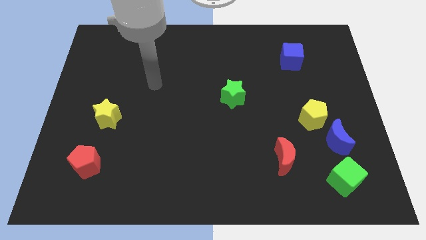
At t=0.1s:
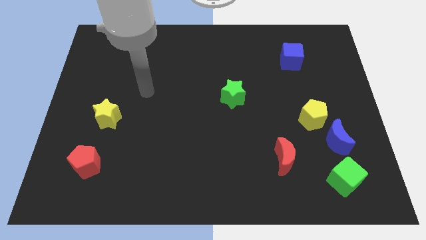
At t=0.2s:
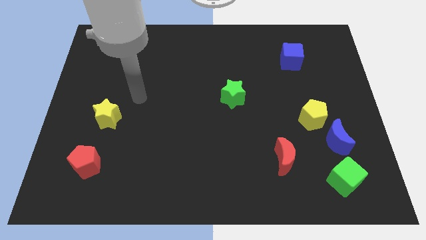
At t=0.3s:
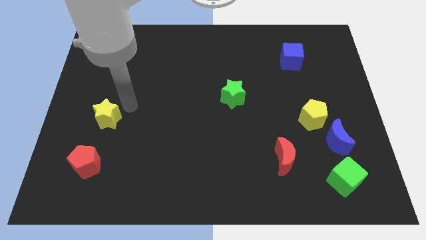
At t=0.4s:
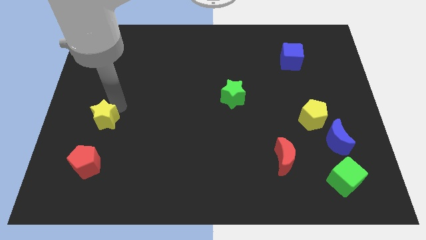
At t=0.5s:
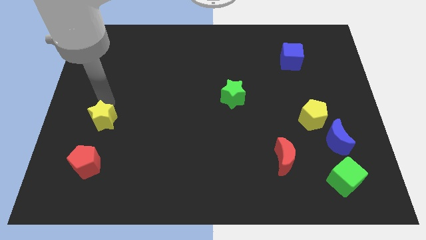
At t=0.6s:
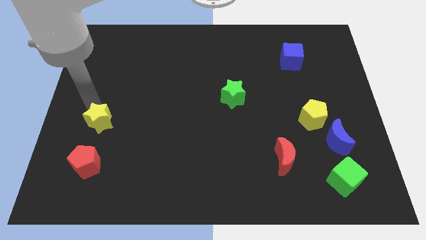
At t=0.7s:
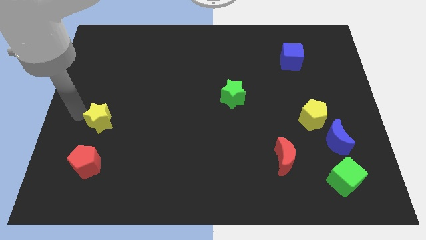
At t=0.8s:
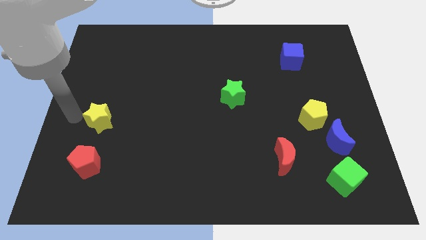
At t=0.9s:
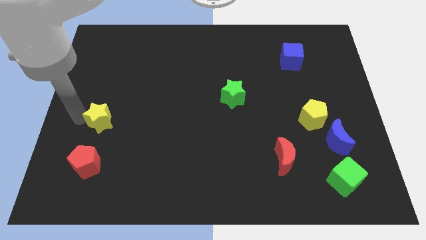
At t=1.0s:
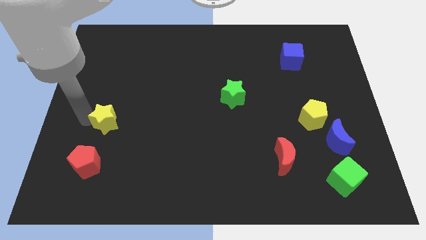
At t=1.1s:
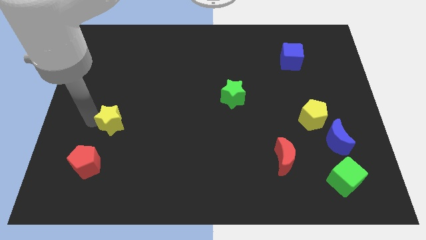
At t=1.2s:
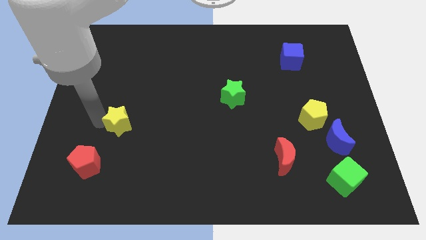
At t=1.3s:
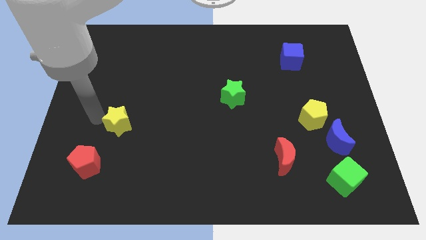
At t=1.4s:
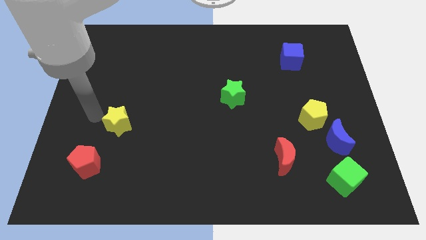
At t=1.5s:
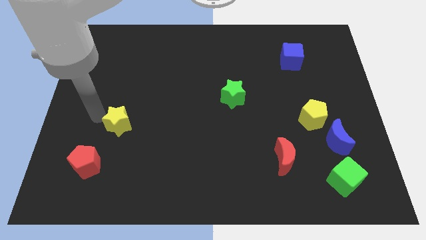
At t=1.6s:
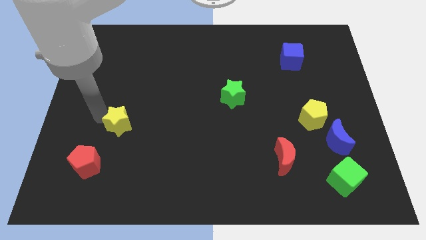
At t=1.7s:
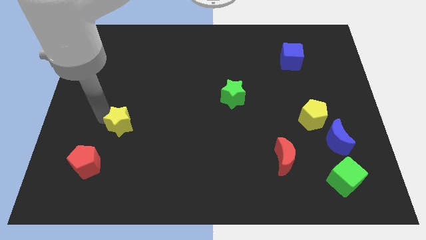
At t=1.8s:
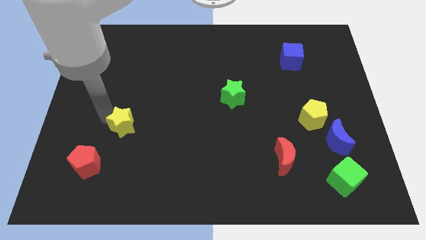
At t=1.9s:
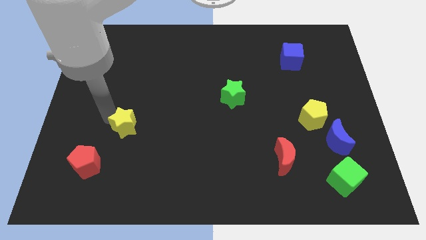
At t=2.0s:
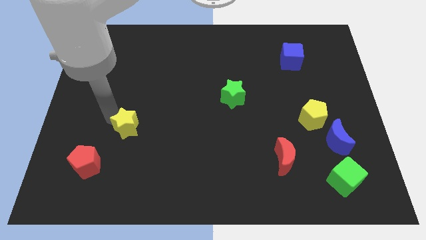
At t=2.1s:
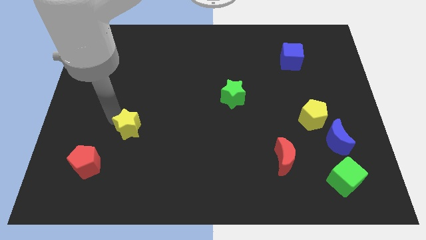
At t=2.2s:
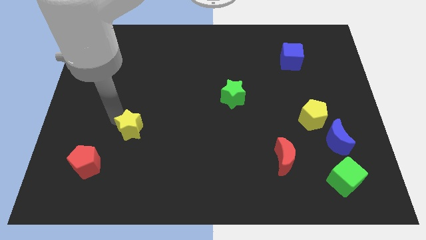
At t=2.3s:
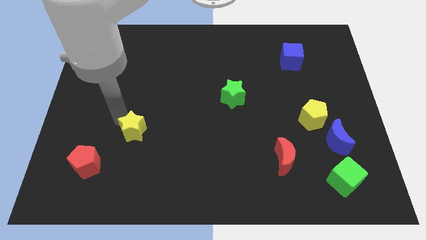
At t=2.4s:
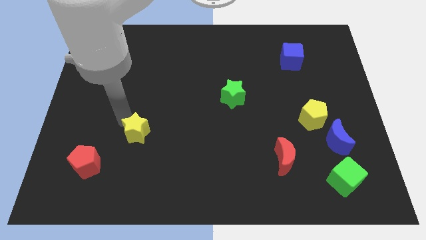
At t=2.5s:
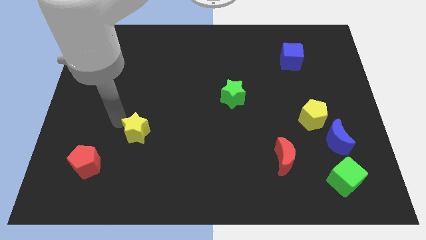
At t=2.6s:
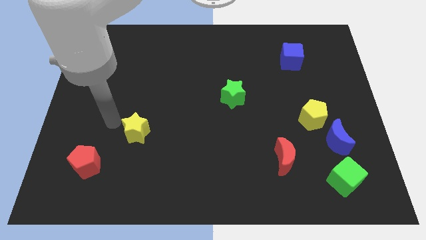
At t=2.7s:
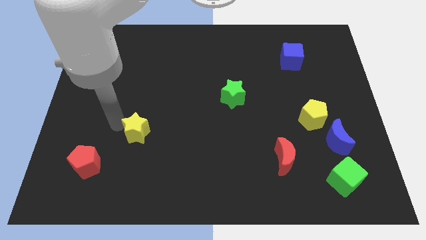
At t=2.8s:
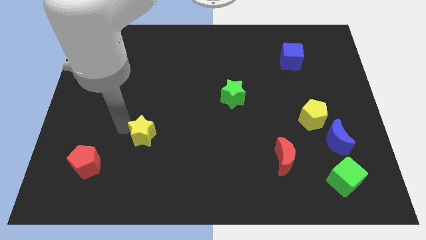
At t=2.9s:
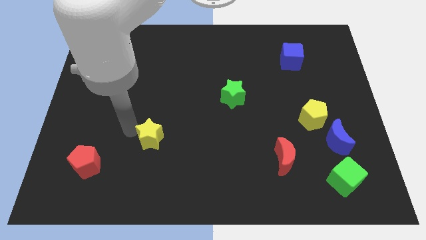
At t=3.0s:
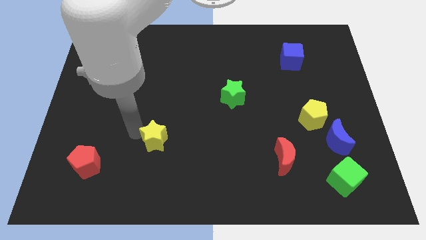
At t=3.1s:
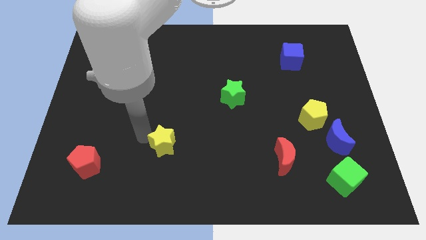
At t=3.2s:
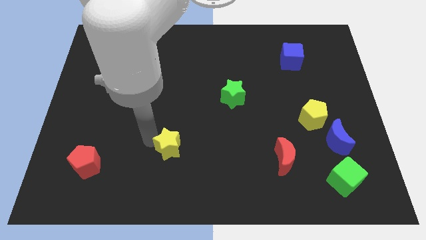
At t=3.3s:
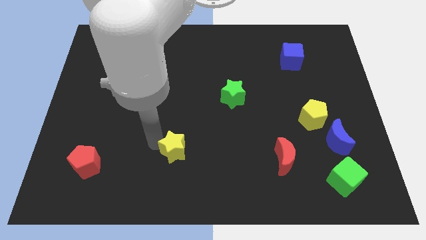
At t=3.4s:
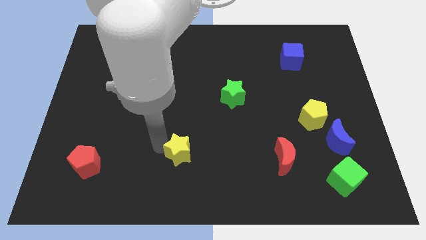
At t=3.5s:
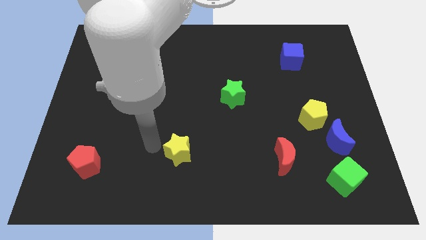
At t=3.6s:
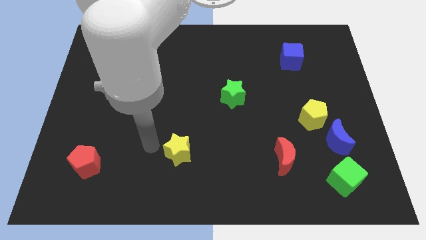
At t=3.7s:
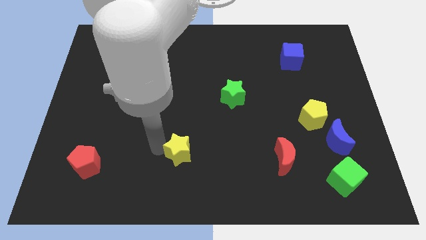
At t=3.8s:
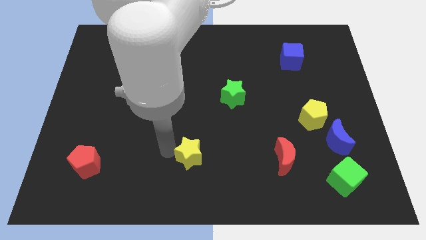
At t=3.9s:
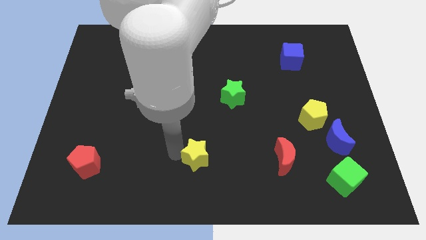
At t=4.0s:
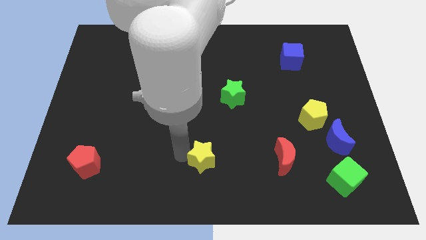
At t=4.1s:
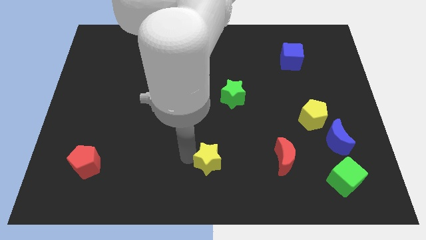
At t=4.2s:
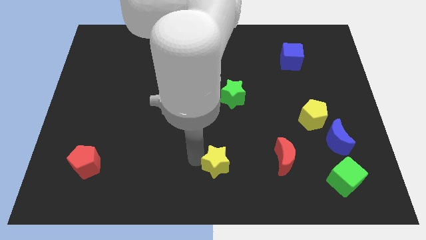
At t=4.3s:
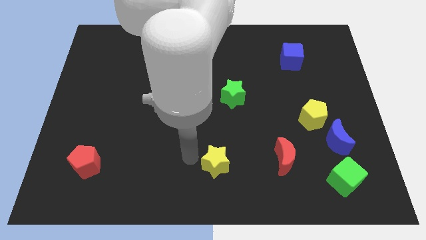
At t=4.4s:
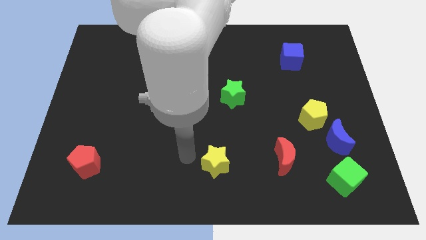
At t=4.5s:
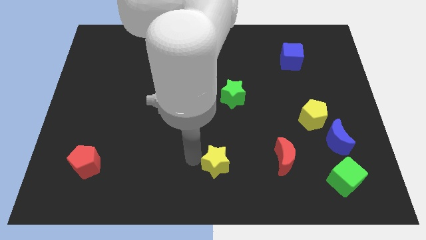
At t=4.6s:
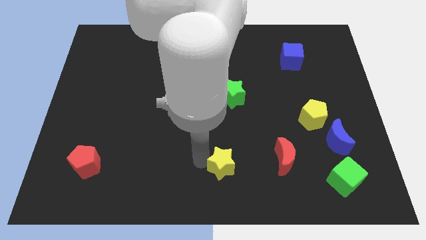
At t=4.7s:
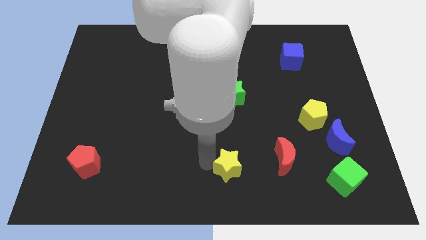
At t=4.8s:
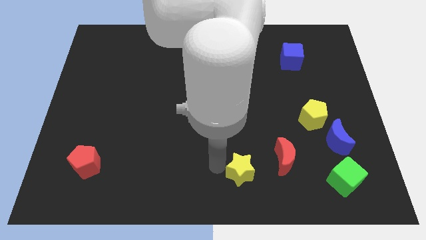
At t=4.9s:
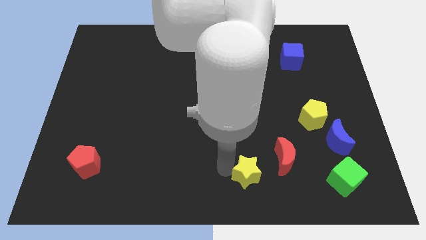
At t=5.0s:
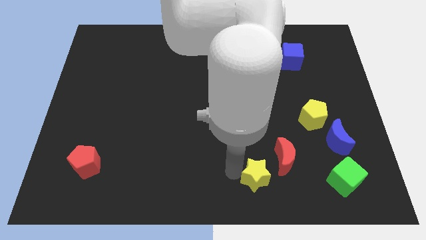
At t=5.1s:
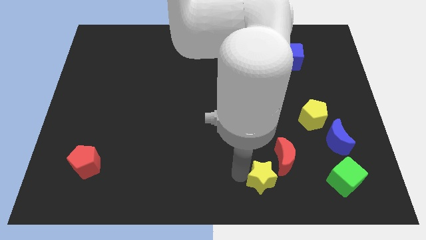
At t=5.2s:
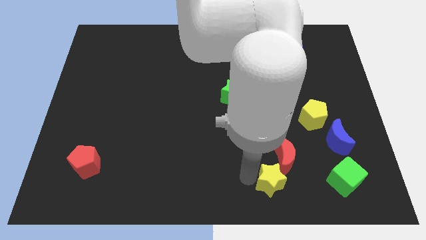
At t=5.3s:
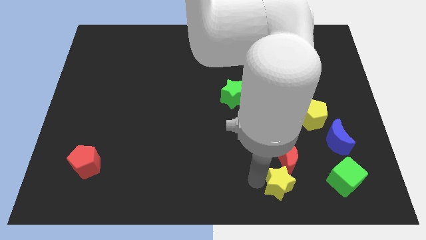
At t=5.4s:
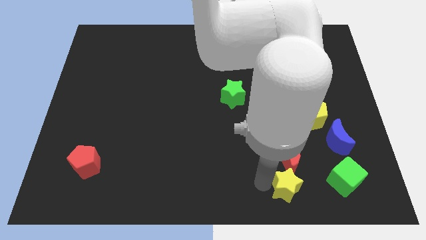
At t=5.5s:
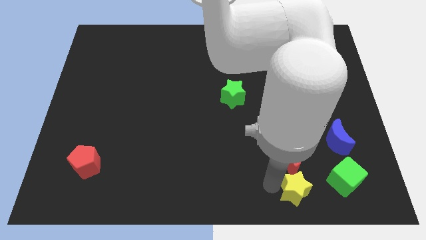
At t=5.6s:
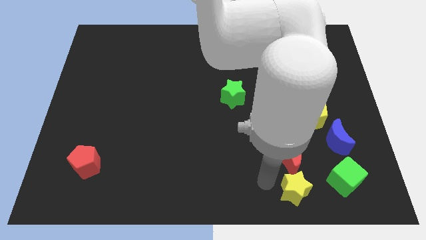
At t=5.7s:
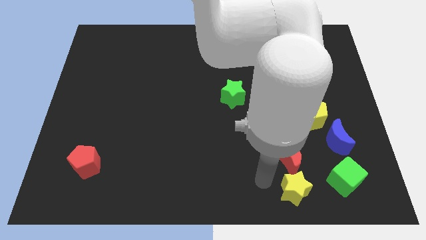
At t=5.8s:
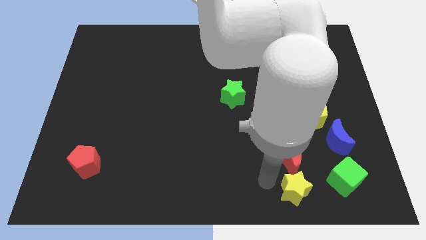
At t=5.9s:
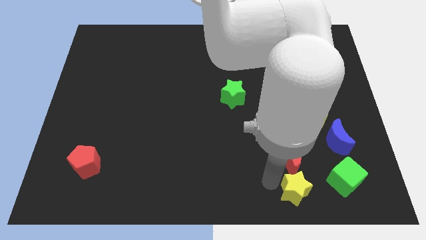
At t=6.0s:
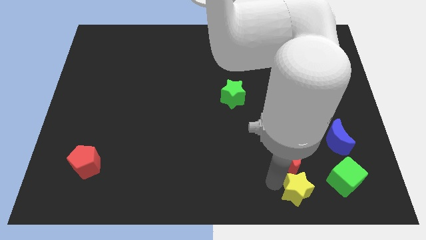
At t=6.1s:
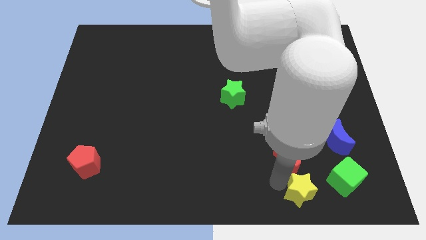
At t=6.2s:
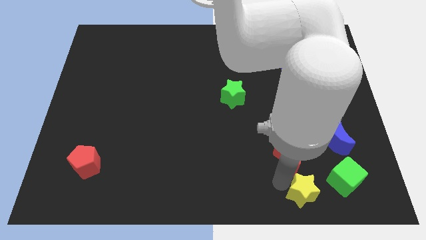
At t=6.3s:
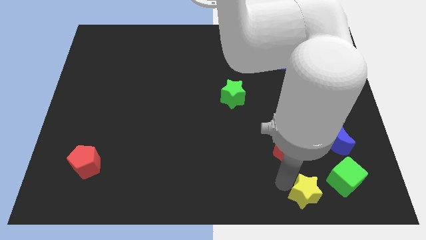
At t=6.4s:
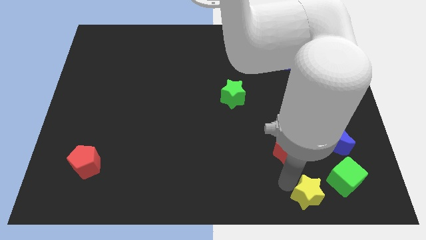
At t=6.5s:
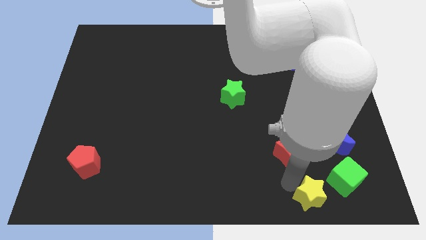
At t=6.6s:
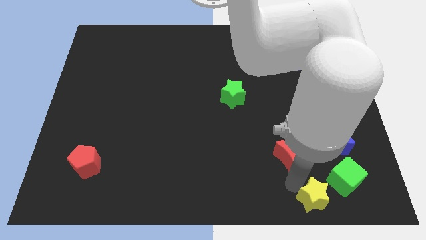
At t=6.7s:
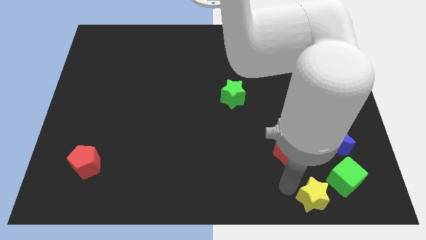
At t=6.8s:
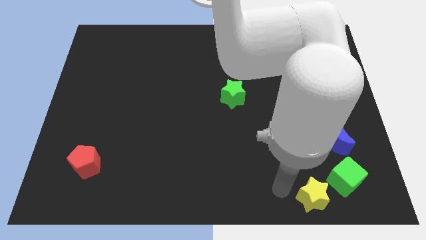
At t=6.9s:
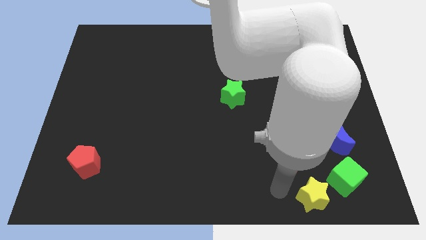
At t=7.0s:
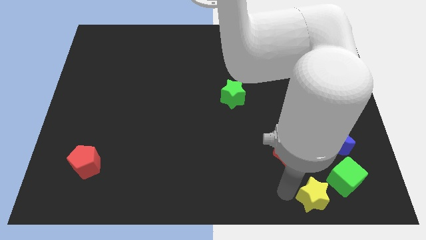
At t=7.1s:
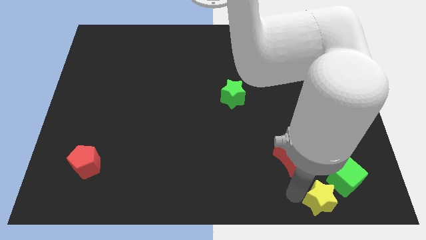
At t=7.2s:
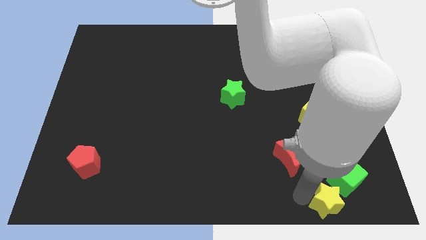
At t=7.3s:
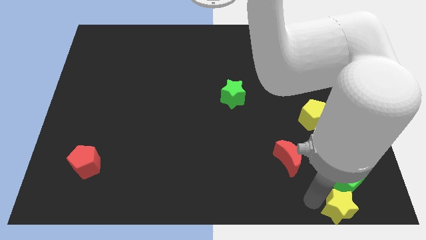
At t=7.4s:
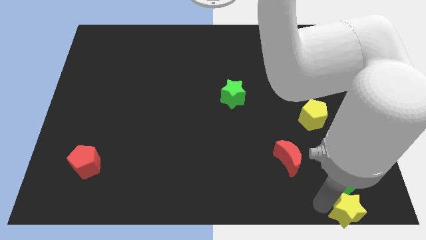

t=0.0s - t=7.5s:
push the yellow star to the bottom right of the board
